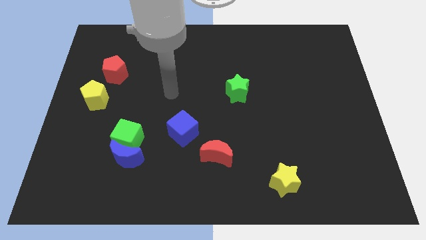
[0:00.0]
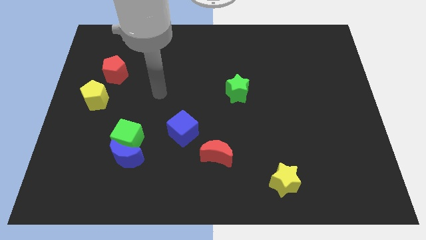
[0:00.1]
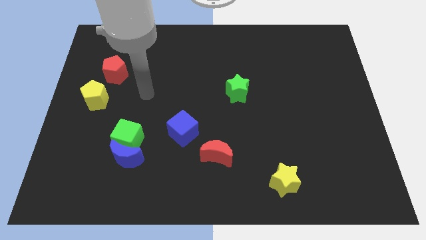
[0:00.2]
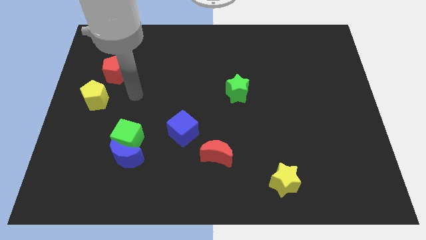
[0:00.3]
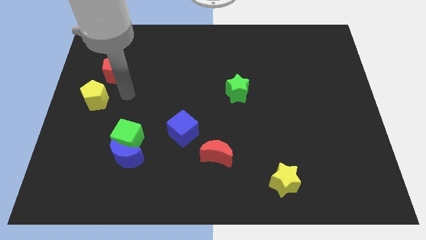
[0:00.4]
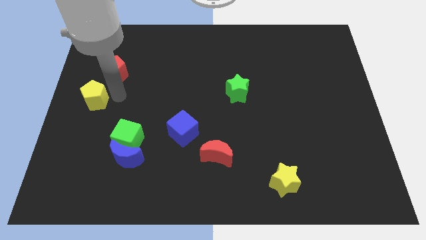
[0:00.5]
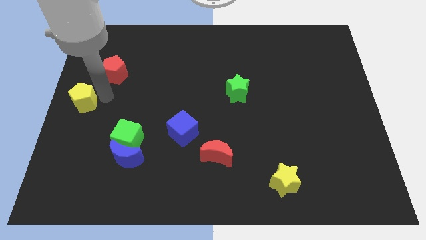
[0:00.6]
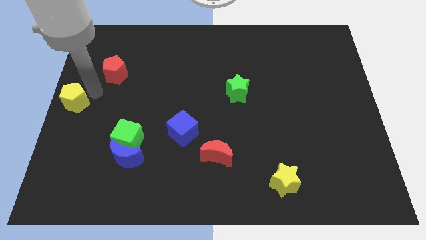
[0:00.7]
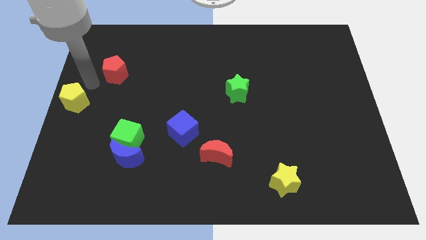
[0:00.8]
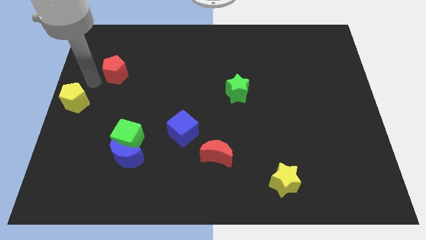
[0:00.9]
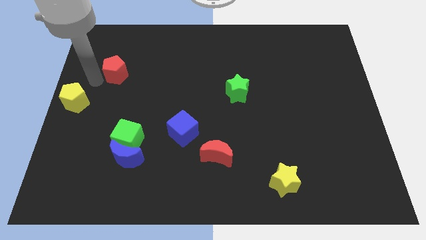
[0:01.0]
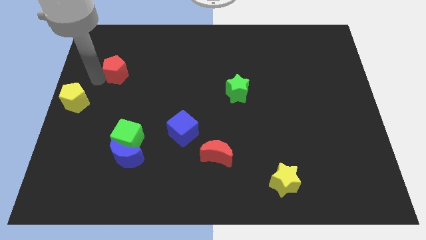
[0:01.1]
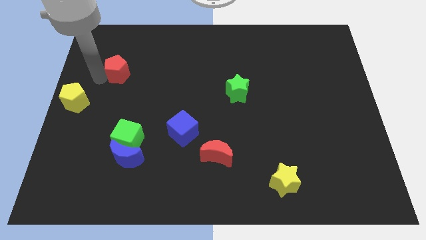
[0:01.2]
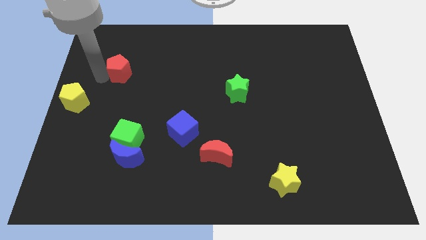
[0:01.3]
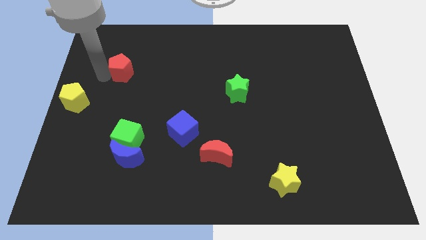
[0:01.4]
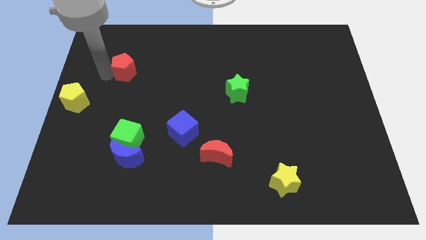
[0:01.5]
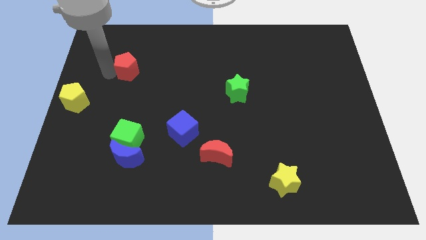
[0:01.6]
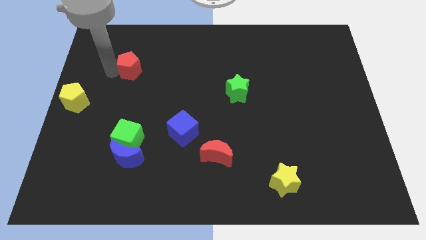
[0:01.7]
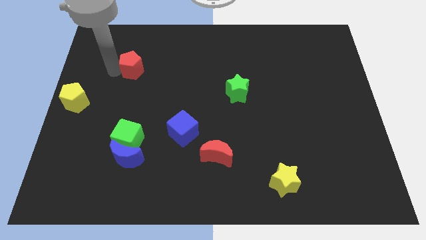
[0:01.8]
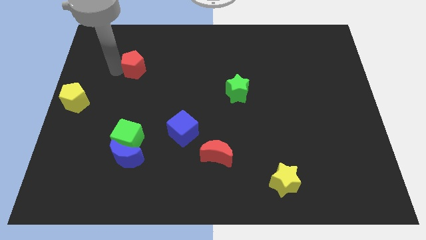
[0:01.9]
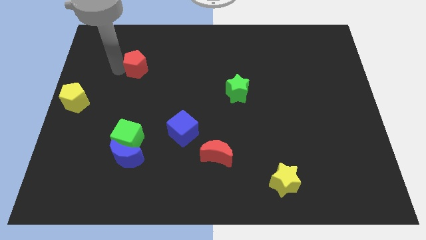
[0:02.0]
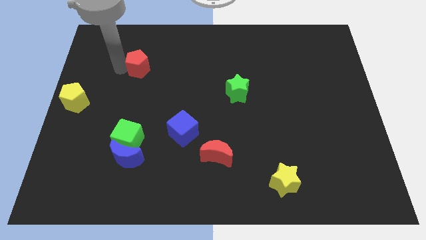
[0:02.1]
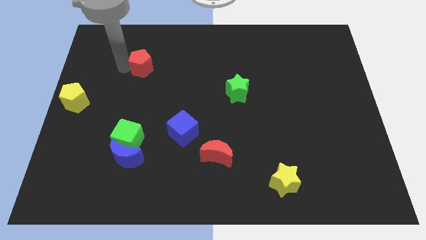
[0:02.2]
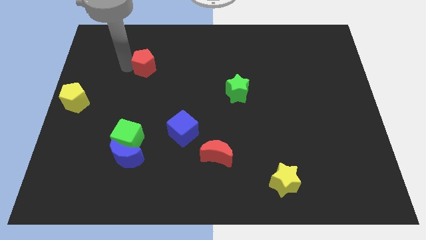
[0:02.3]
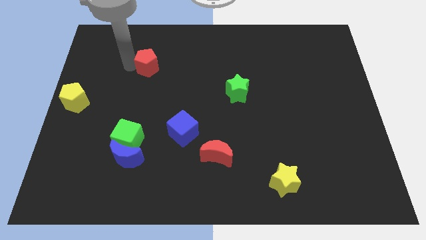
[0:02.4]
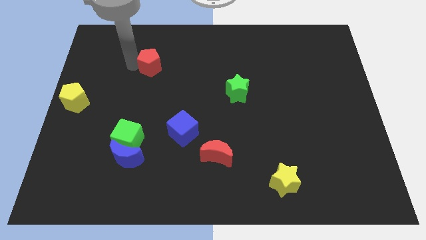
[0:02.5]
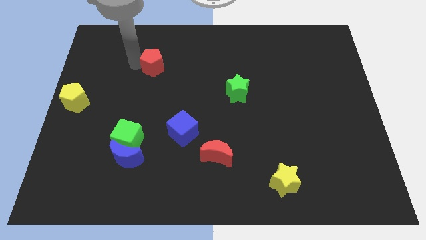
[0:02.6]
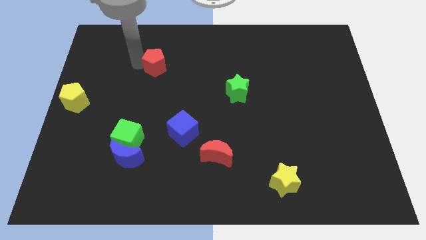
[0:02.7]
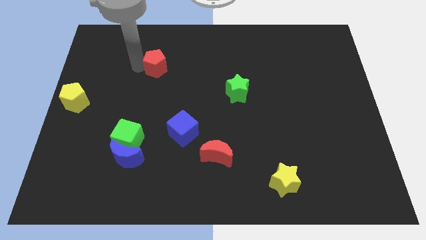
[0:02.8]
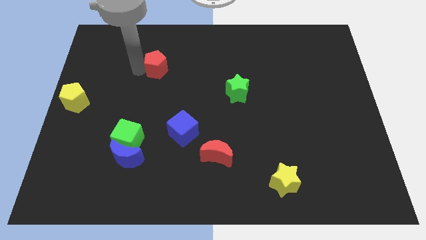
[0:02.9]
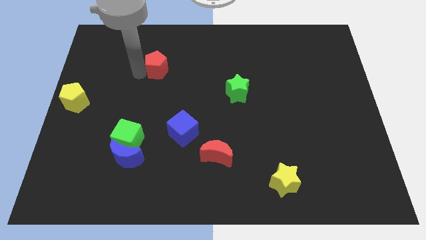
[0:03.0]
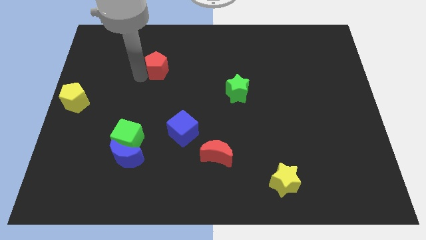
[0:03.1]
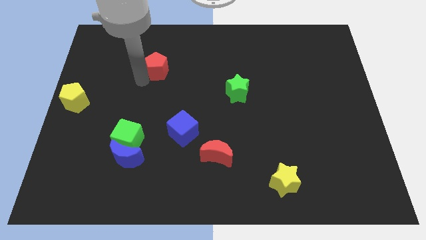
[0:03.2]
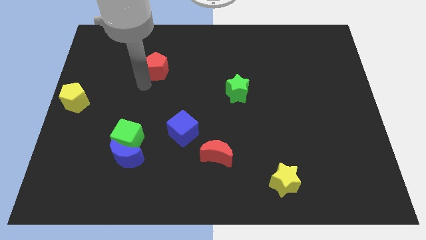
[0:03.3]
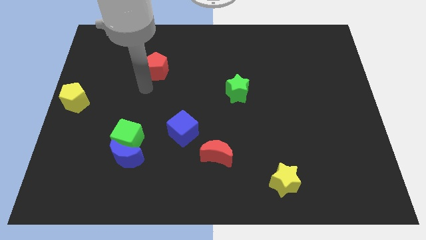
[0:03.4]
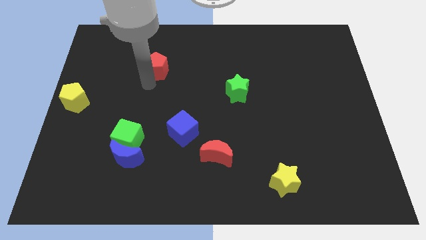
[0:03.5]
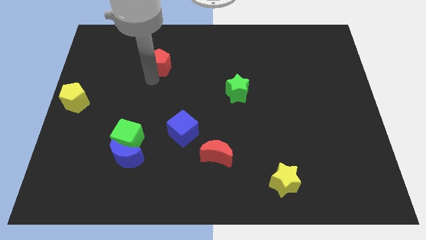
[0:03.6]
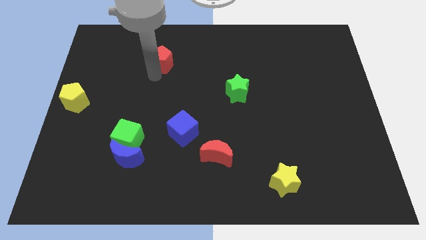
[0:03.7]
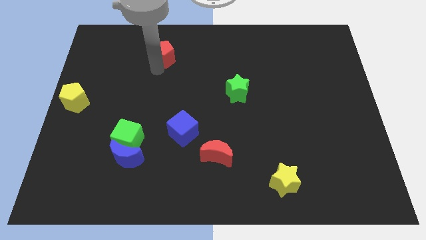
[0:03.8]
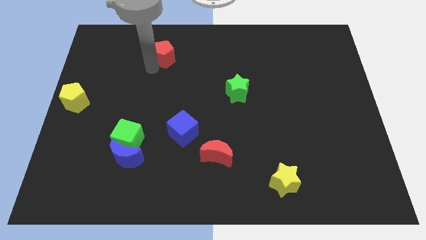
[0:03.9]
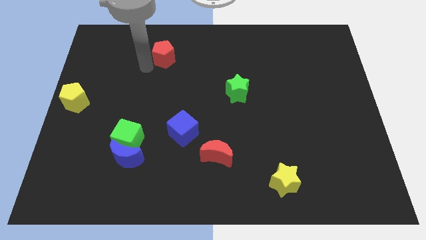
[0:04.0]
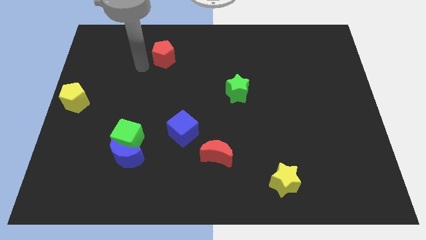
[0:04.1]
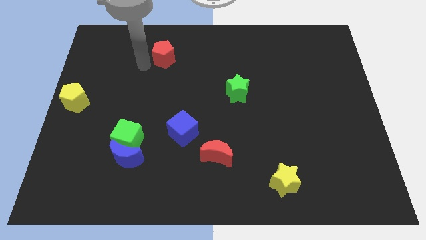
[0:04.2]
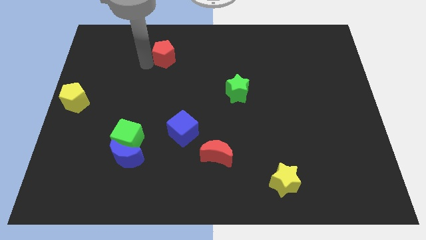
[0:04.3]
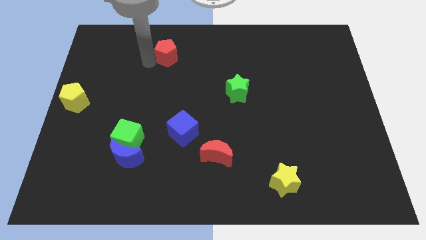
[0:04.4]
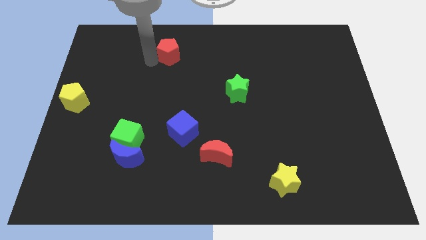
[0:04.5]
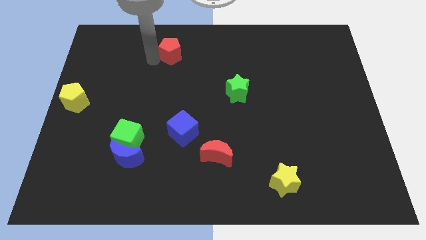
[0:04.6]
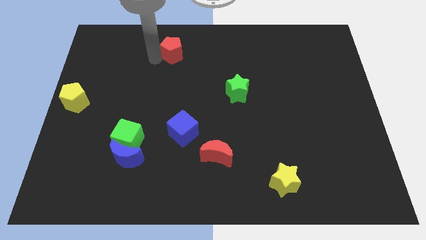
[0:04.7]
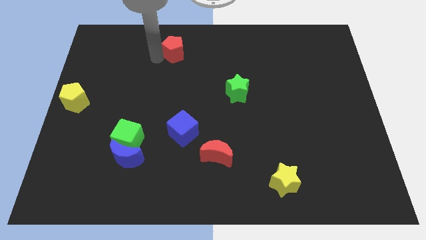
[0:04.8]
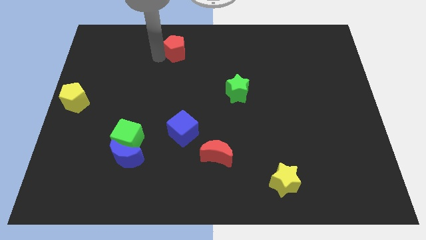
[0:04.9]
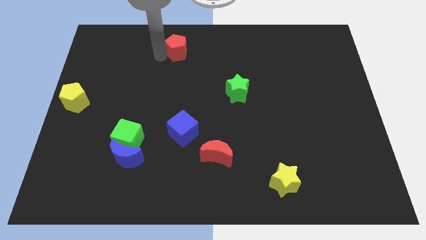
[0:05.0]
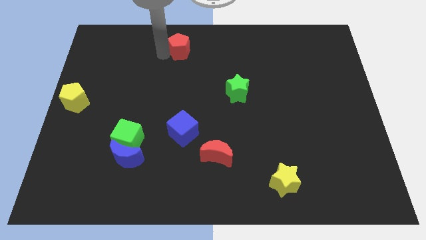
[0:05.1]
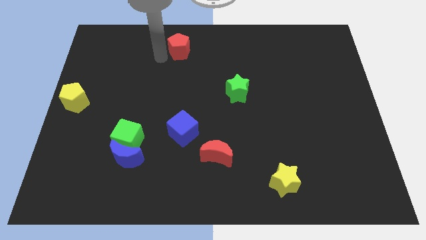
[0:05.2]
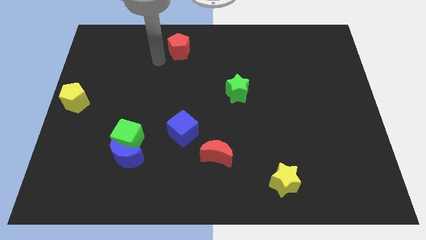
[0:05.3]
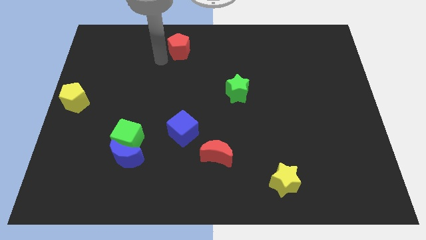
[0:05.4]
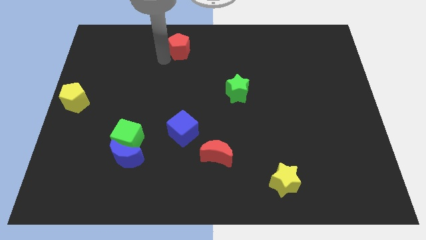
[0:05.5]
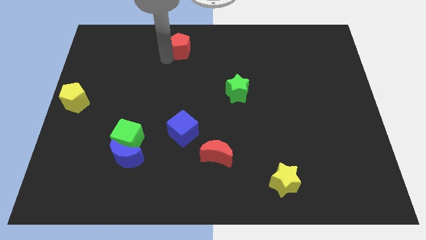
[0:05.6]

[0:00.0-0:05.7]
slide the red pentagon to the towards your base
